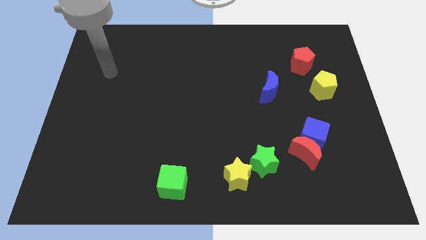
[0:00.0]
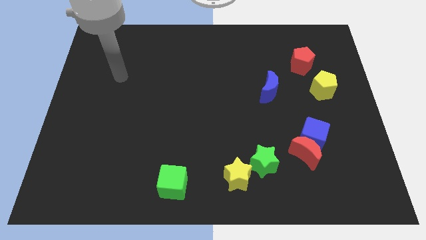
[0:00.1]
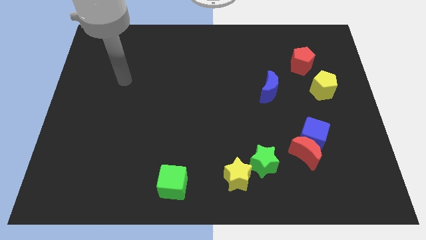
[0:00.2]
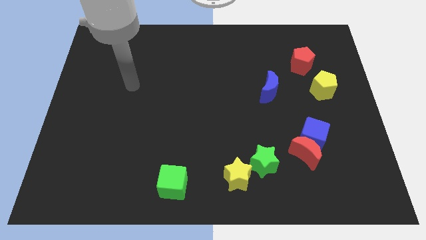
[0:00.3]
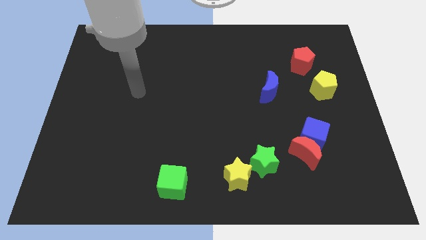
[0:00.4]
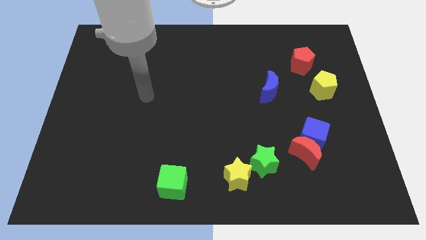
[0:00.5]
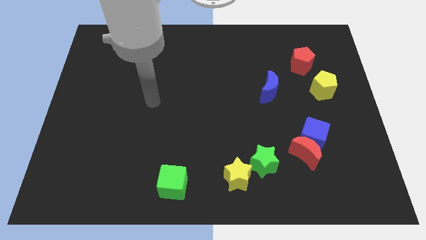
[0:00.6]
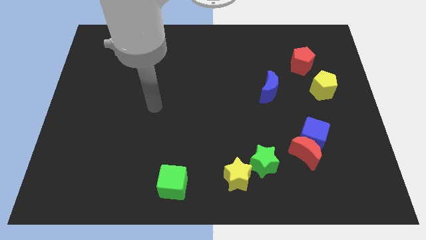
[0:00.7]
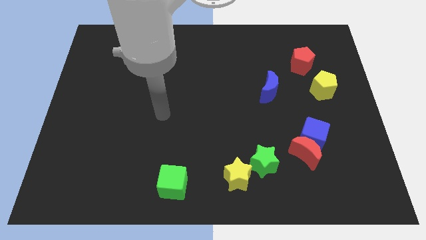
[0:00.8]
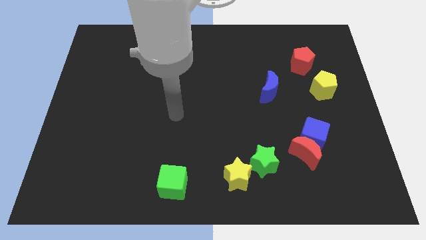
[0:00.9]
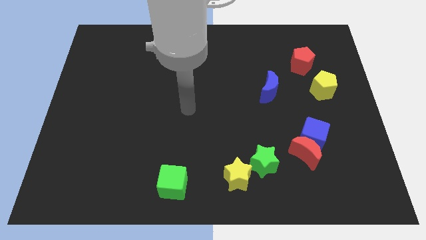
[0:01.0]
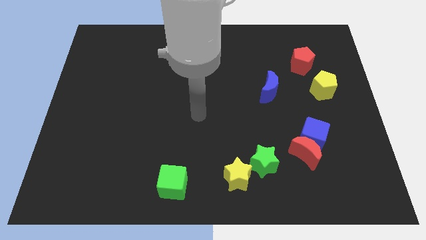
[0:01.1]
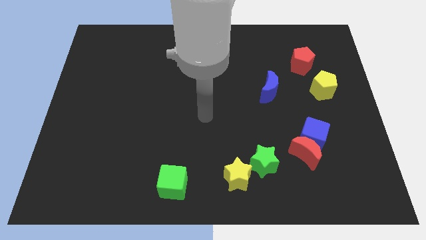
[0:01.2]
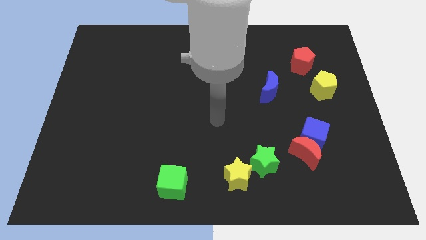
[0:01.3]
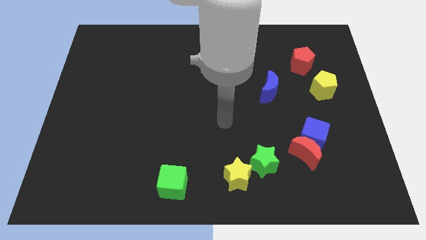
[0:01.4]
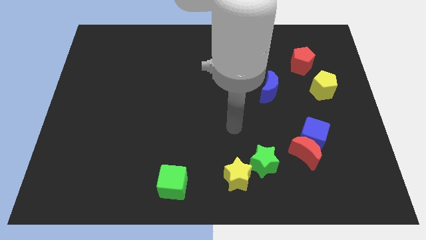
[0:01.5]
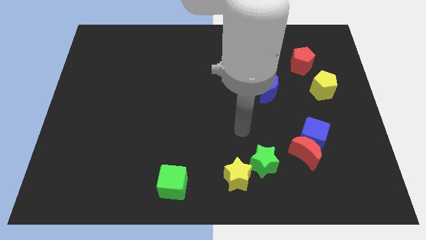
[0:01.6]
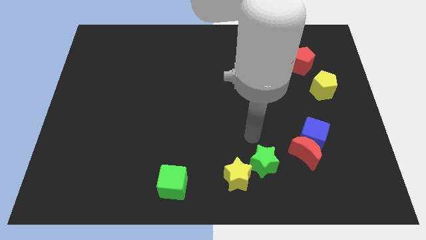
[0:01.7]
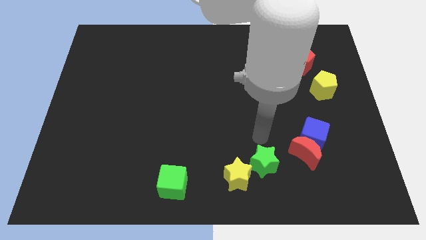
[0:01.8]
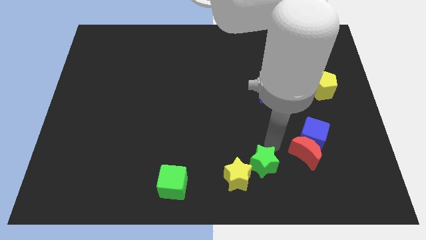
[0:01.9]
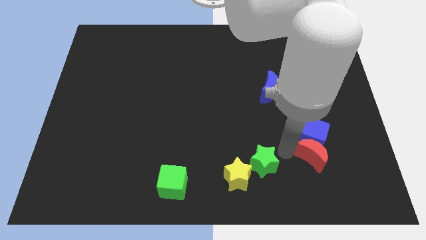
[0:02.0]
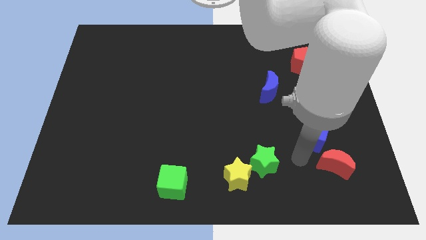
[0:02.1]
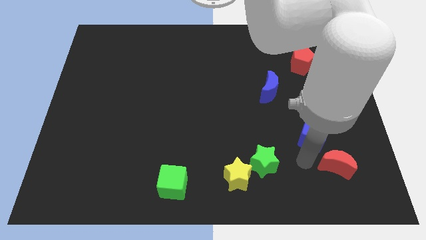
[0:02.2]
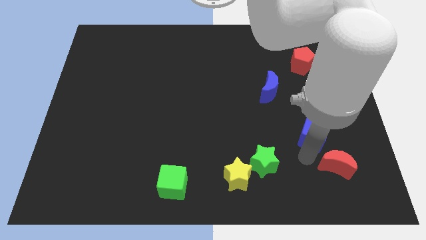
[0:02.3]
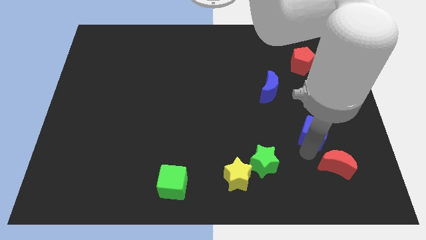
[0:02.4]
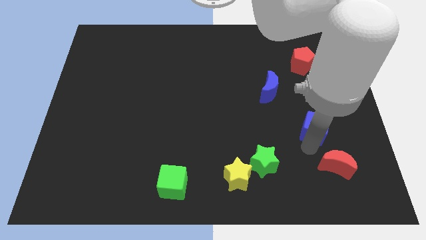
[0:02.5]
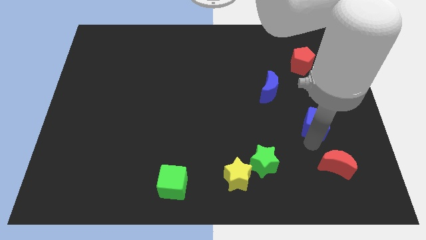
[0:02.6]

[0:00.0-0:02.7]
move the blue cube away from the red moon

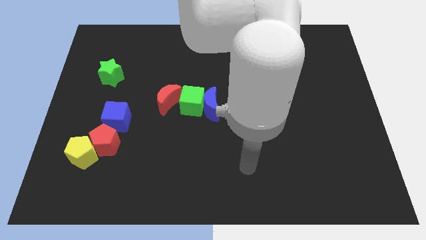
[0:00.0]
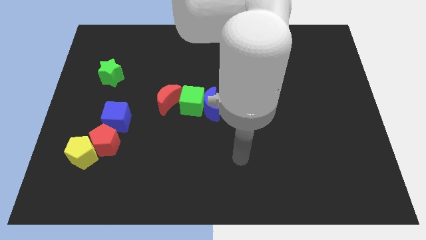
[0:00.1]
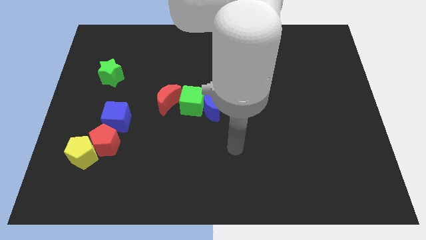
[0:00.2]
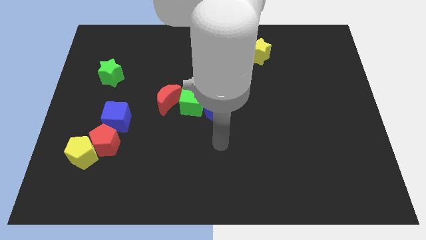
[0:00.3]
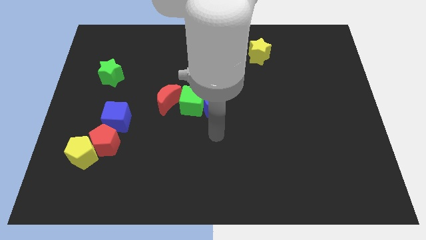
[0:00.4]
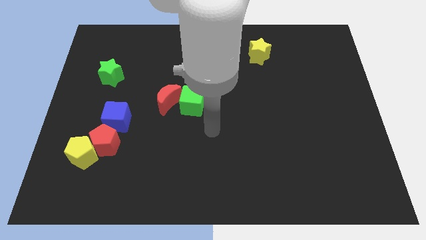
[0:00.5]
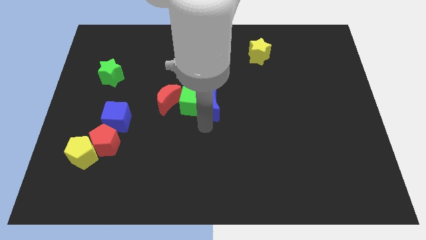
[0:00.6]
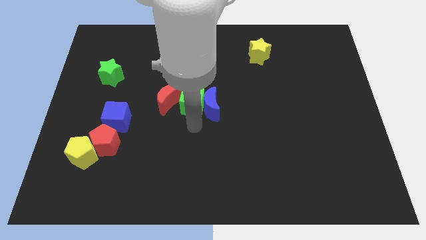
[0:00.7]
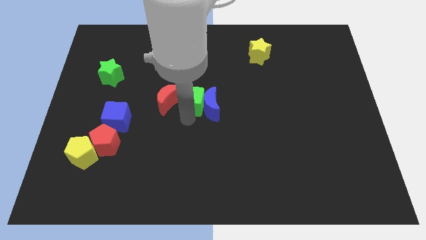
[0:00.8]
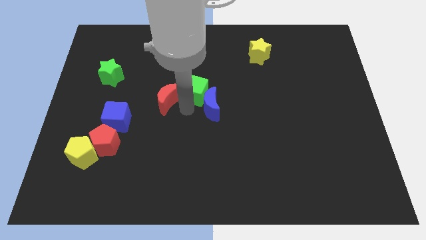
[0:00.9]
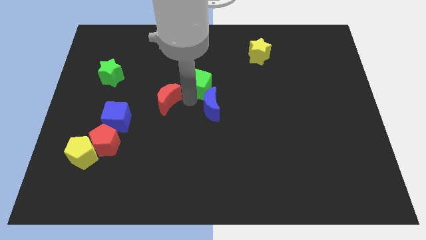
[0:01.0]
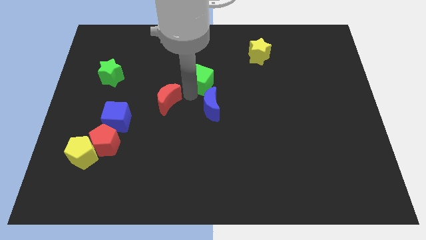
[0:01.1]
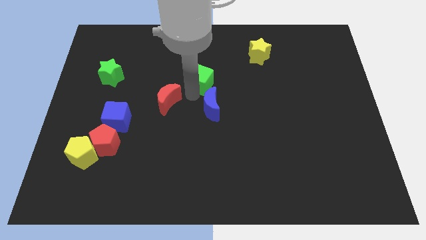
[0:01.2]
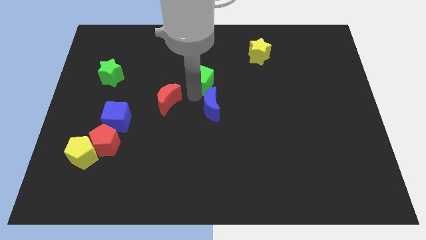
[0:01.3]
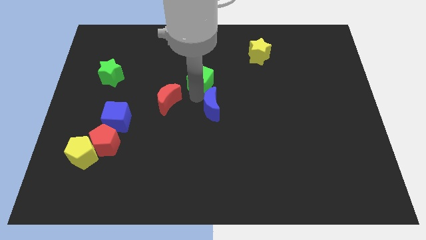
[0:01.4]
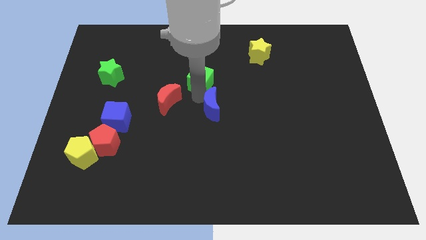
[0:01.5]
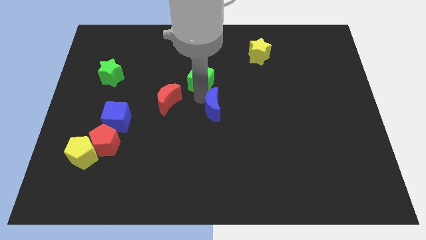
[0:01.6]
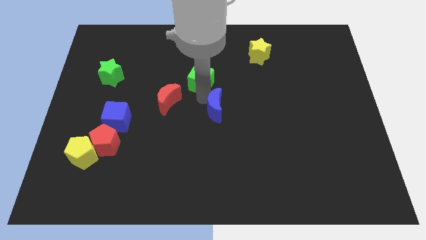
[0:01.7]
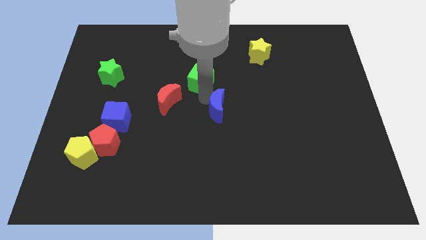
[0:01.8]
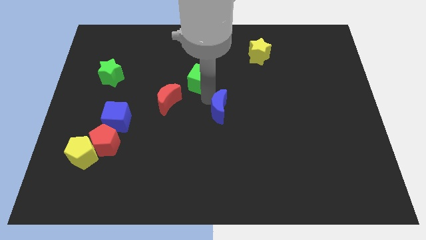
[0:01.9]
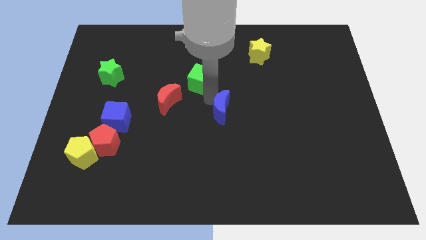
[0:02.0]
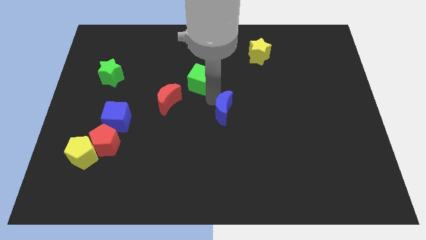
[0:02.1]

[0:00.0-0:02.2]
move the blue moon away from the green cube

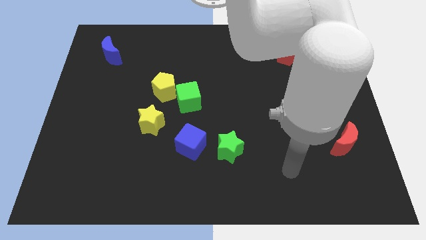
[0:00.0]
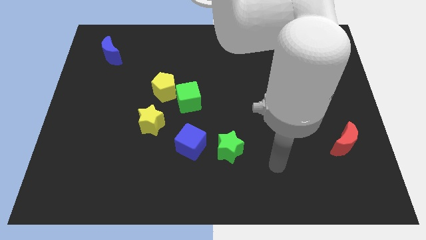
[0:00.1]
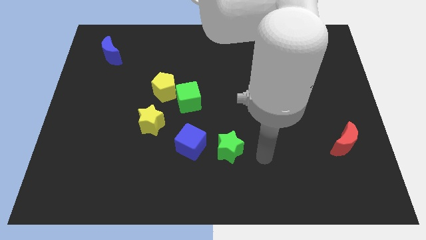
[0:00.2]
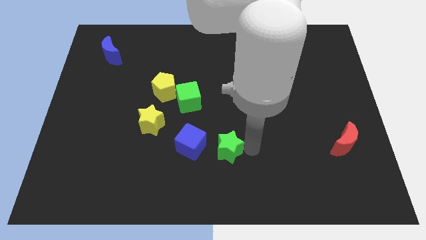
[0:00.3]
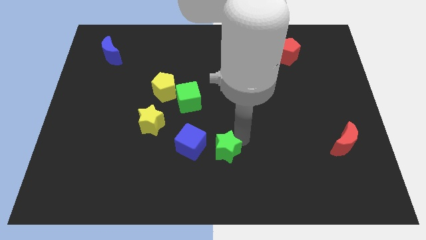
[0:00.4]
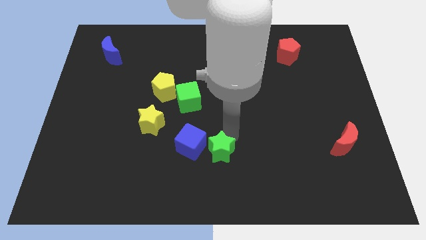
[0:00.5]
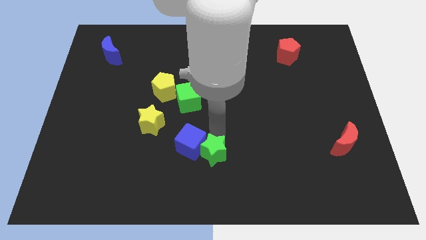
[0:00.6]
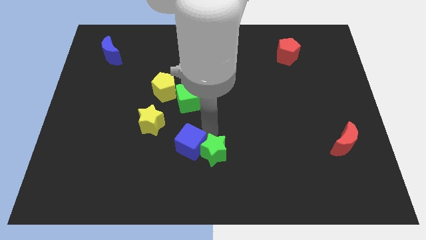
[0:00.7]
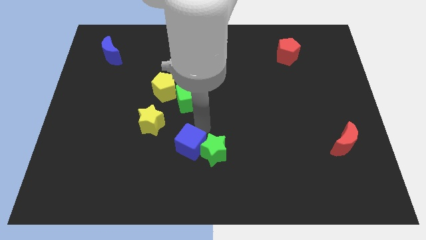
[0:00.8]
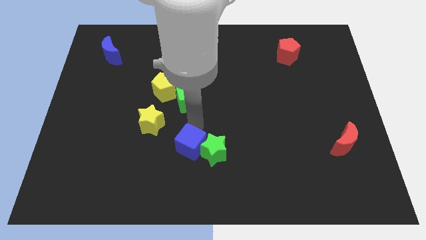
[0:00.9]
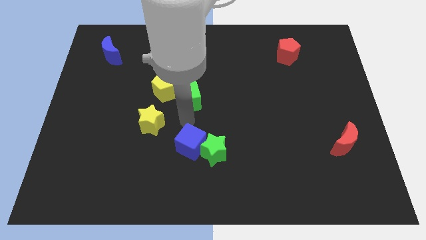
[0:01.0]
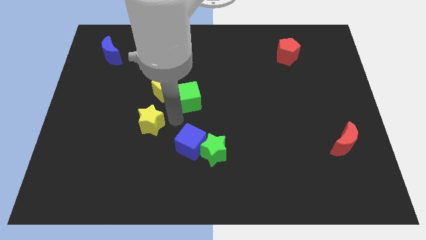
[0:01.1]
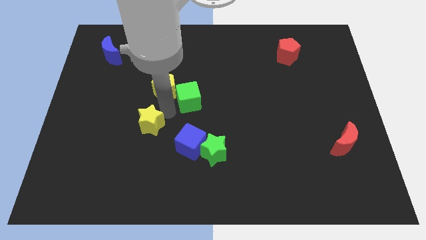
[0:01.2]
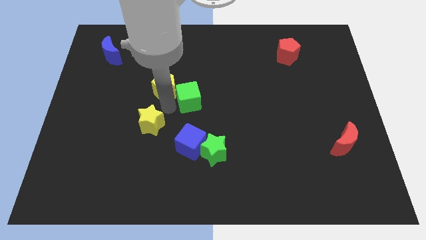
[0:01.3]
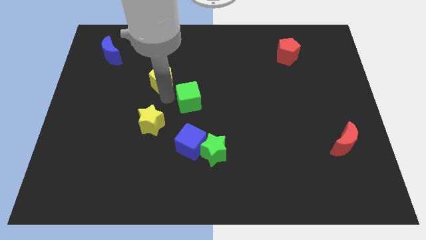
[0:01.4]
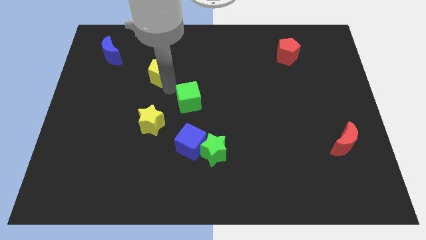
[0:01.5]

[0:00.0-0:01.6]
separate the green cube from the yellow pentagon

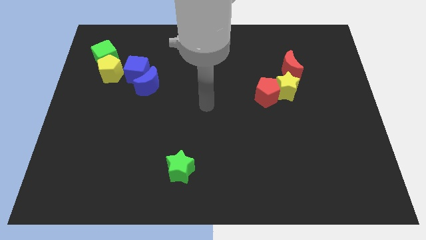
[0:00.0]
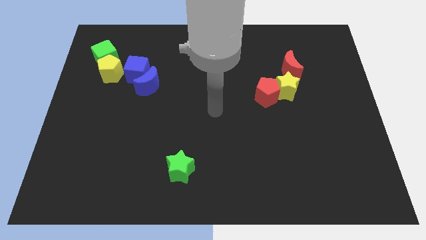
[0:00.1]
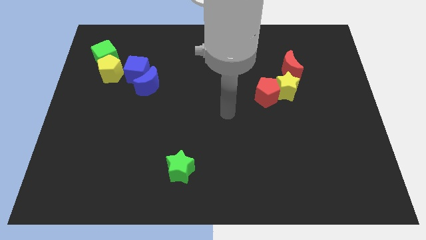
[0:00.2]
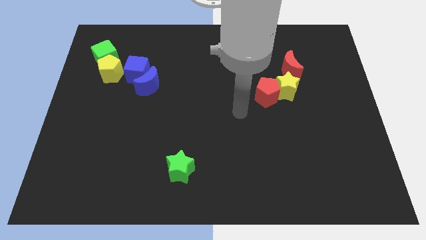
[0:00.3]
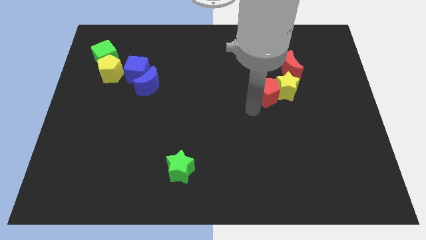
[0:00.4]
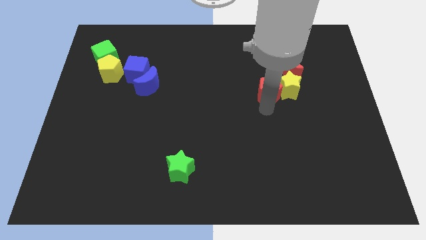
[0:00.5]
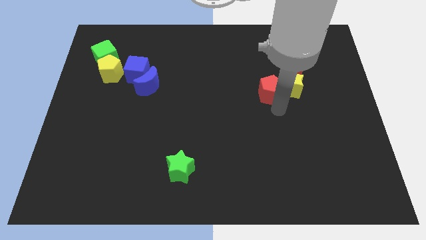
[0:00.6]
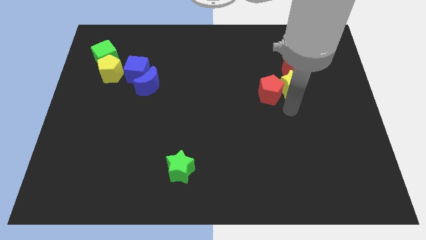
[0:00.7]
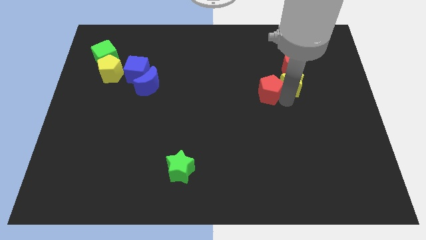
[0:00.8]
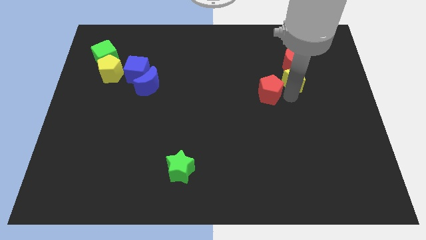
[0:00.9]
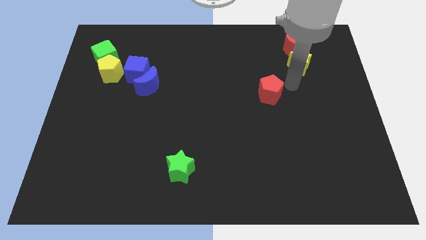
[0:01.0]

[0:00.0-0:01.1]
separate the red pentagon from the yellow star

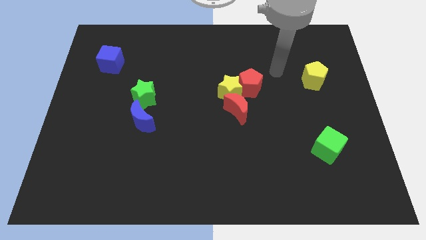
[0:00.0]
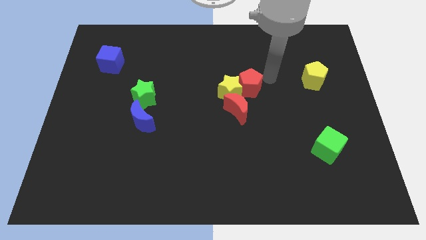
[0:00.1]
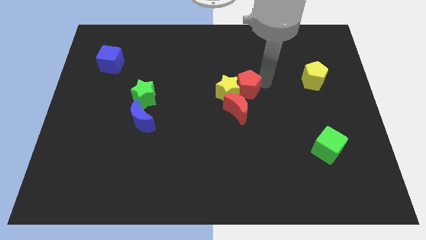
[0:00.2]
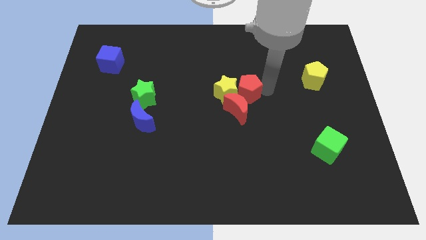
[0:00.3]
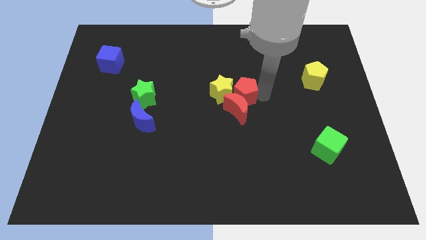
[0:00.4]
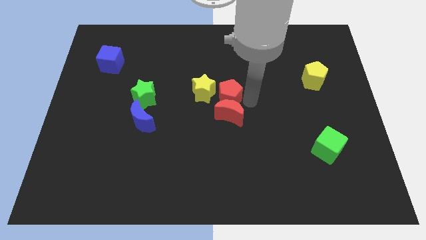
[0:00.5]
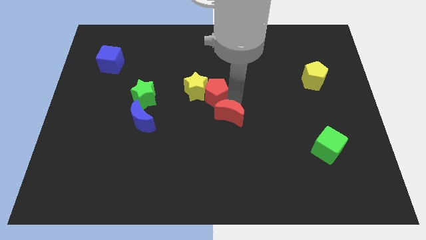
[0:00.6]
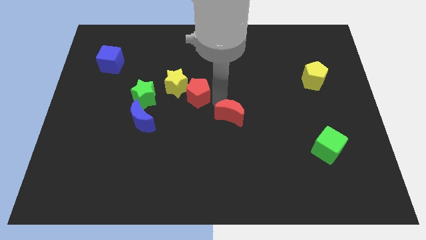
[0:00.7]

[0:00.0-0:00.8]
pull the yellow star apart from the red pentagon and red moon

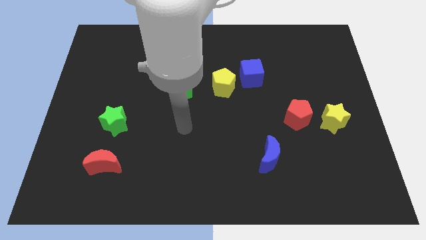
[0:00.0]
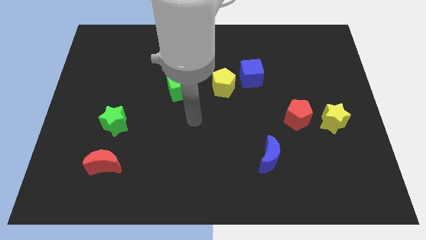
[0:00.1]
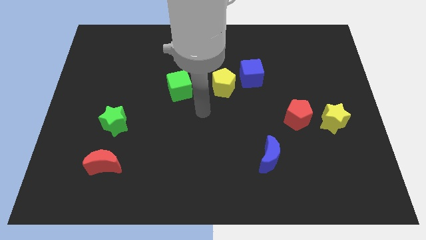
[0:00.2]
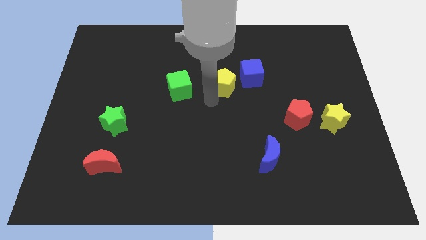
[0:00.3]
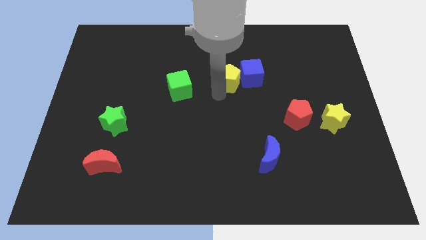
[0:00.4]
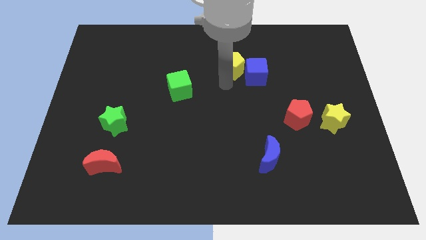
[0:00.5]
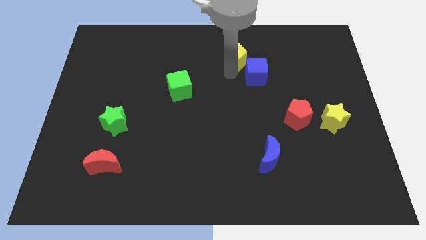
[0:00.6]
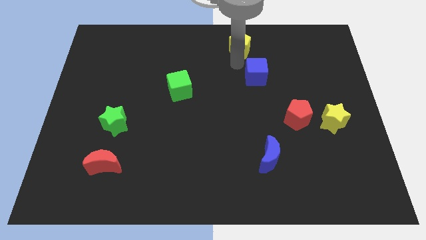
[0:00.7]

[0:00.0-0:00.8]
pull the blue cube apart from the yellow pentagon

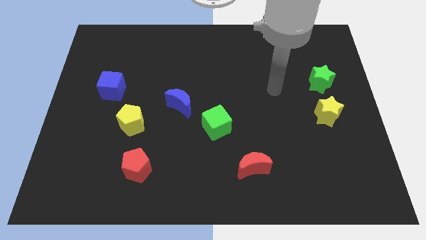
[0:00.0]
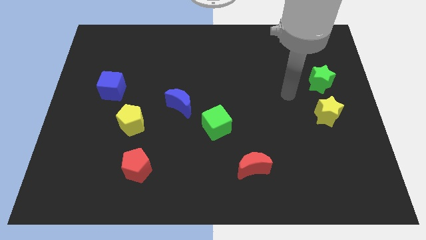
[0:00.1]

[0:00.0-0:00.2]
separate the green star from the yellow star
